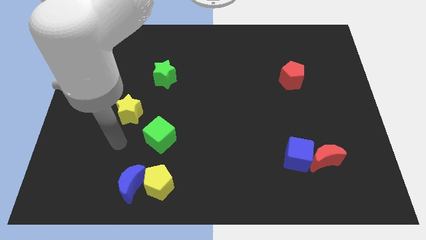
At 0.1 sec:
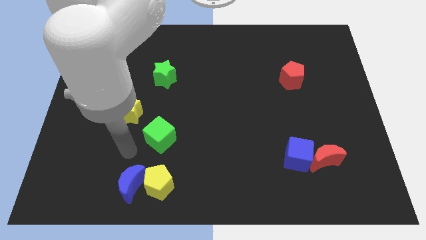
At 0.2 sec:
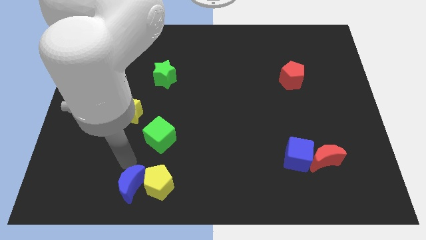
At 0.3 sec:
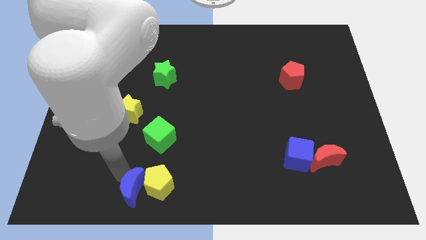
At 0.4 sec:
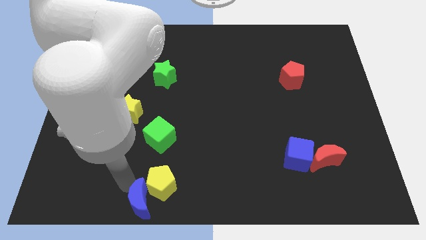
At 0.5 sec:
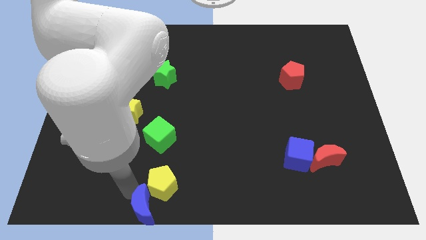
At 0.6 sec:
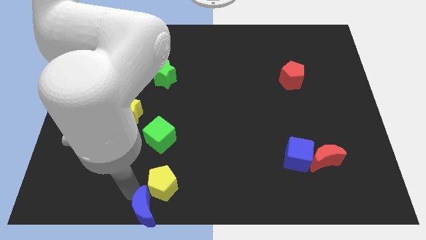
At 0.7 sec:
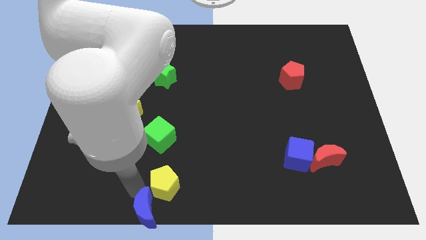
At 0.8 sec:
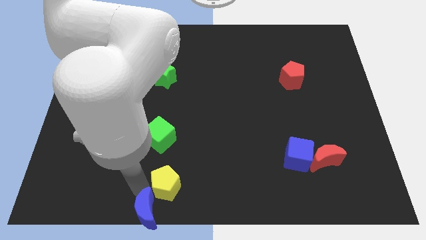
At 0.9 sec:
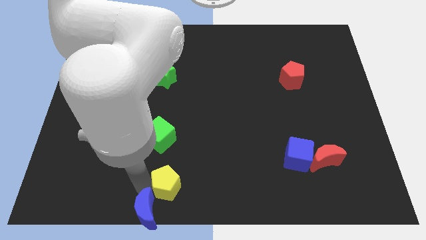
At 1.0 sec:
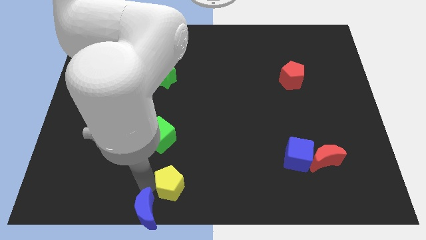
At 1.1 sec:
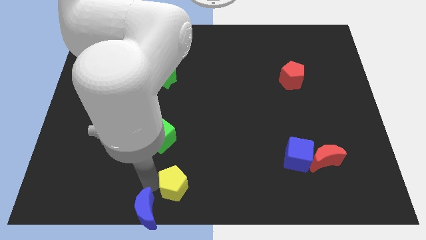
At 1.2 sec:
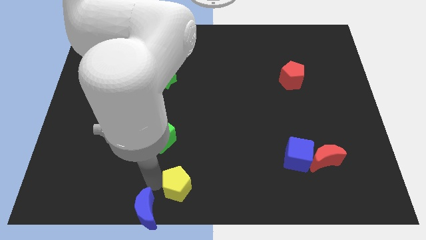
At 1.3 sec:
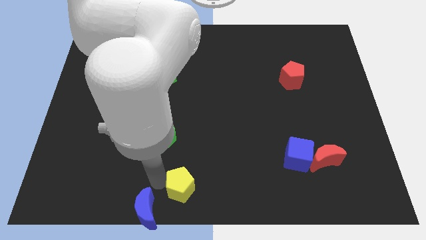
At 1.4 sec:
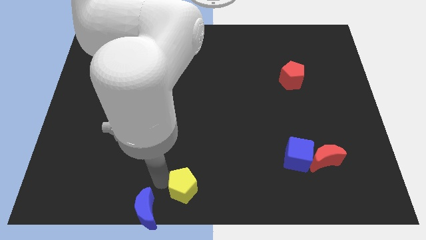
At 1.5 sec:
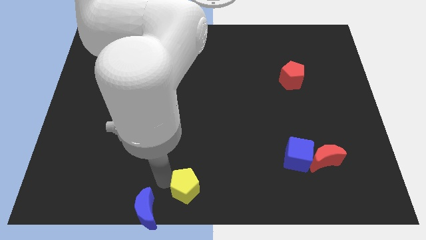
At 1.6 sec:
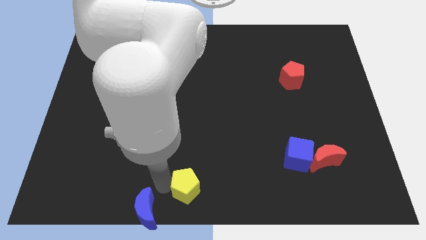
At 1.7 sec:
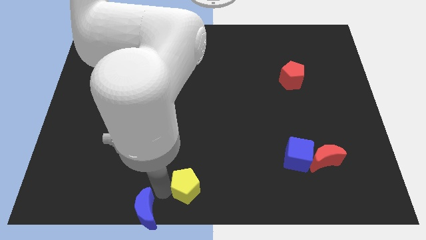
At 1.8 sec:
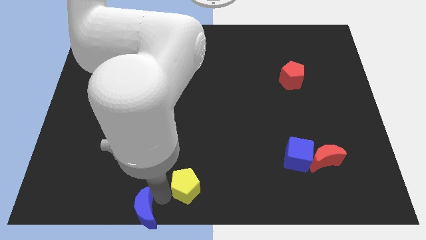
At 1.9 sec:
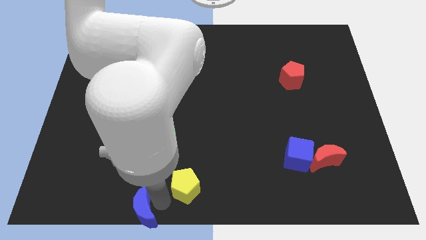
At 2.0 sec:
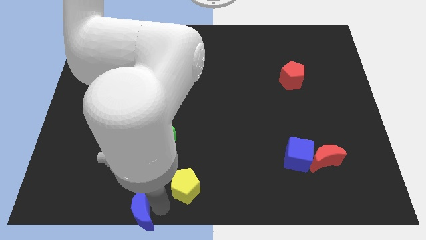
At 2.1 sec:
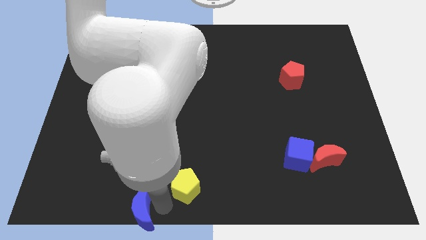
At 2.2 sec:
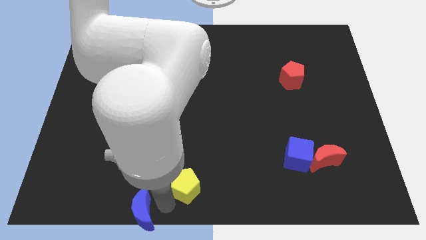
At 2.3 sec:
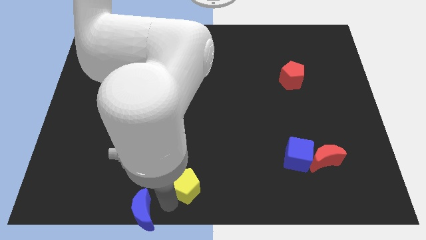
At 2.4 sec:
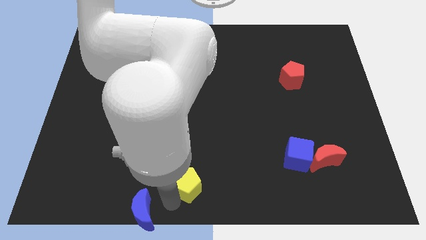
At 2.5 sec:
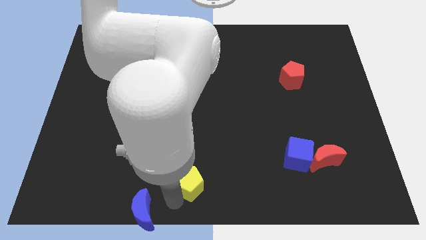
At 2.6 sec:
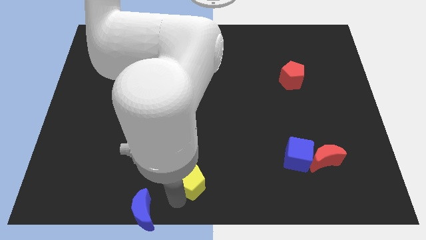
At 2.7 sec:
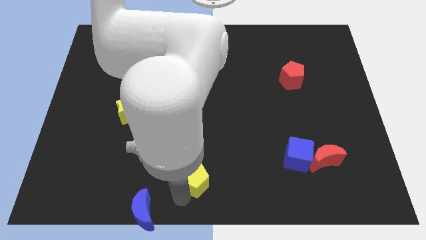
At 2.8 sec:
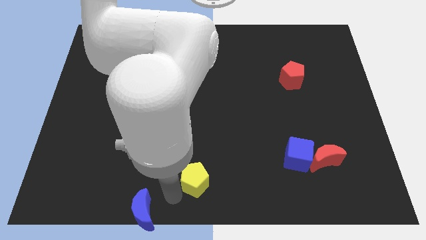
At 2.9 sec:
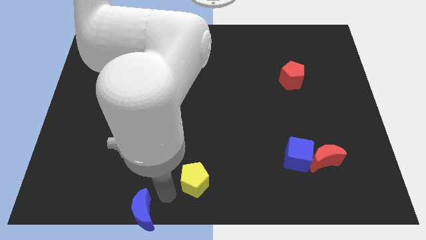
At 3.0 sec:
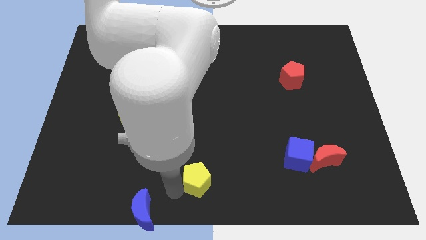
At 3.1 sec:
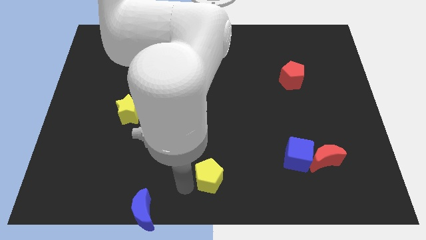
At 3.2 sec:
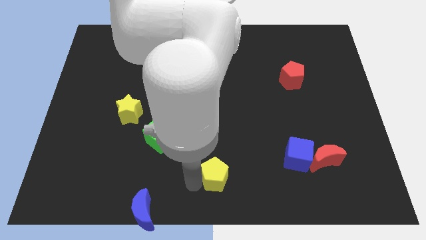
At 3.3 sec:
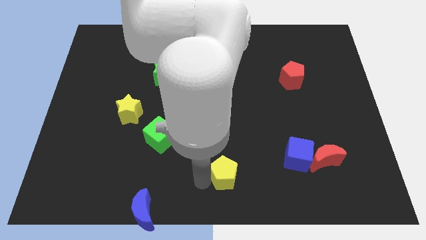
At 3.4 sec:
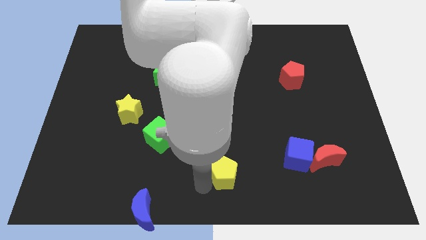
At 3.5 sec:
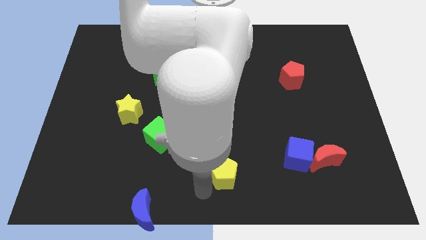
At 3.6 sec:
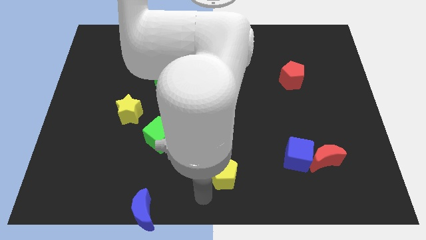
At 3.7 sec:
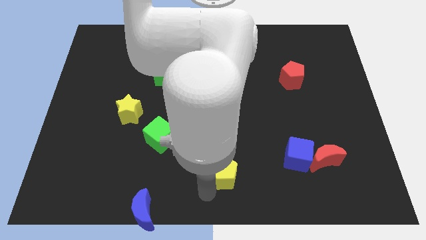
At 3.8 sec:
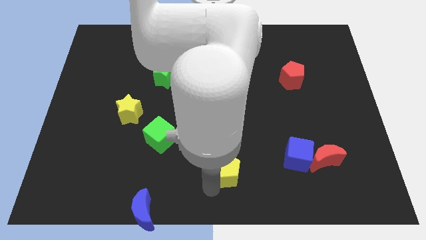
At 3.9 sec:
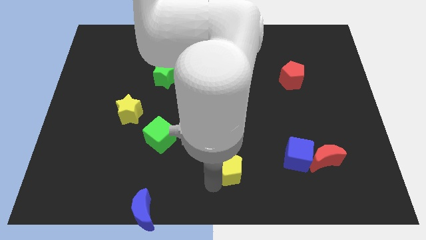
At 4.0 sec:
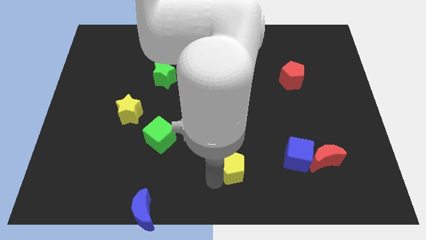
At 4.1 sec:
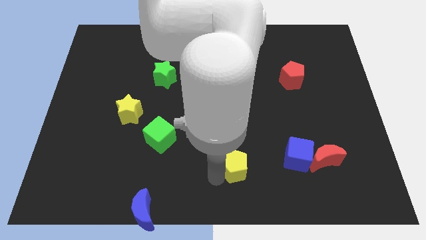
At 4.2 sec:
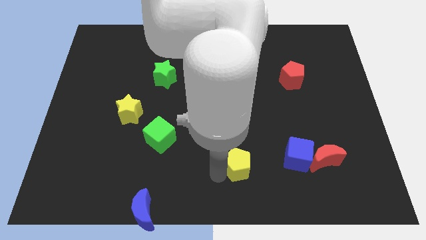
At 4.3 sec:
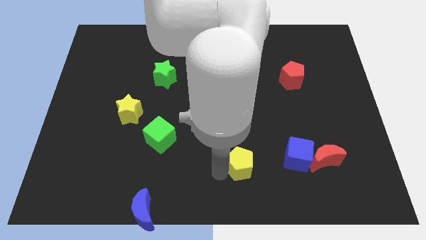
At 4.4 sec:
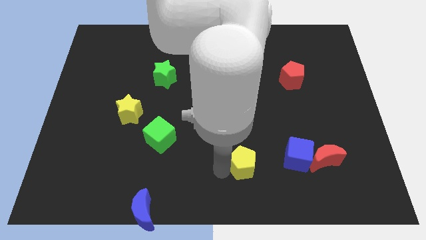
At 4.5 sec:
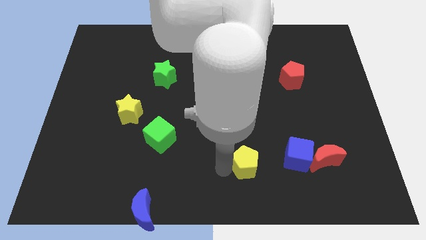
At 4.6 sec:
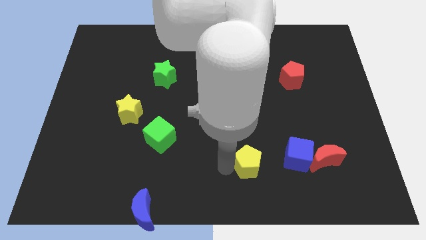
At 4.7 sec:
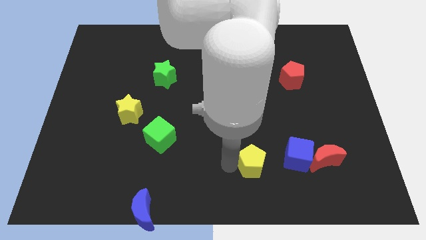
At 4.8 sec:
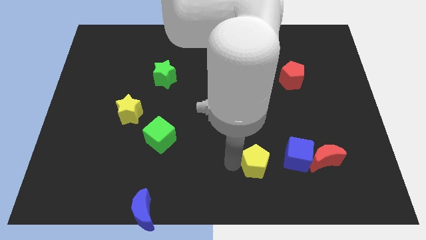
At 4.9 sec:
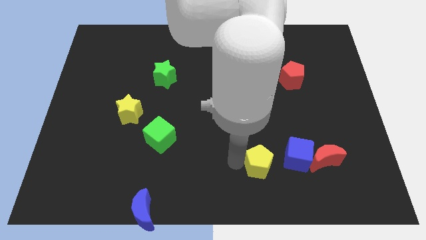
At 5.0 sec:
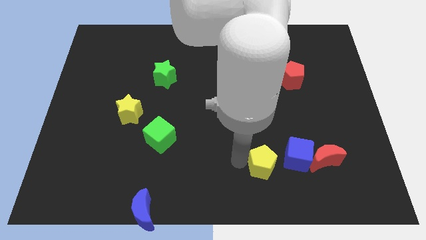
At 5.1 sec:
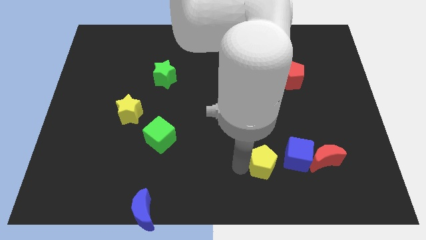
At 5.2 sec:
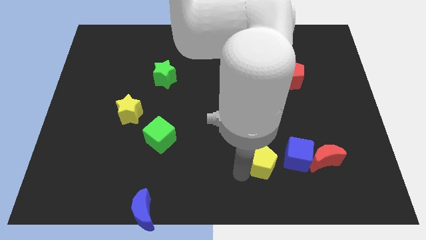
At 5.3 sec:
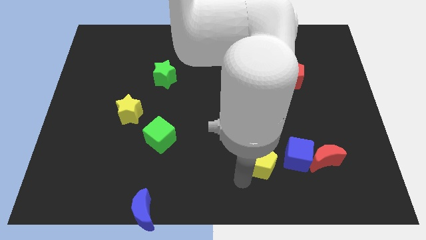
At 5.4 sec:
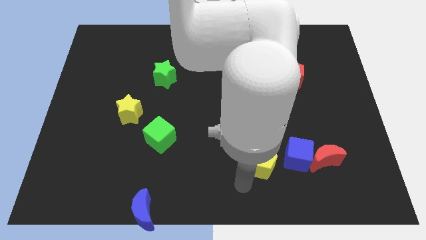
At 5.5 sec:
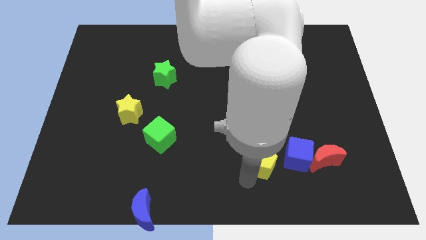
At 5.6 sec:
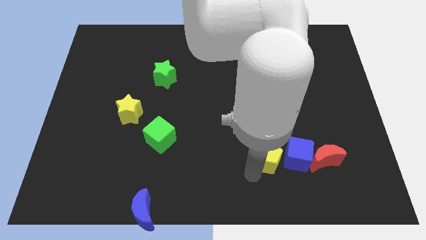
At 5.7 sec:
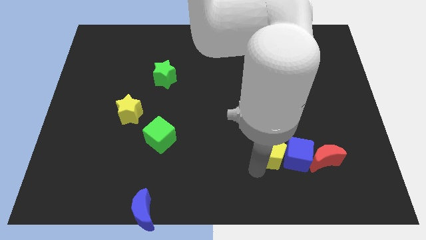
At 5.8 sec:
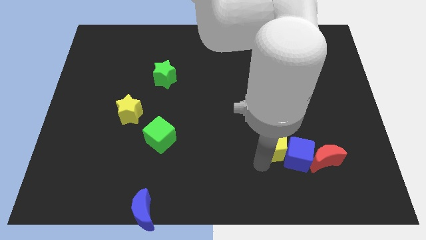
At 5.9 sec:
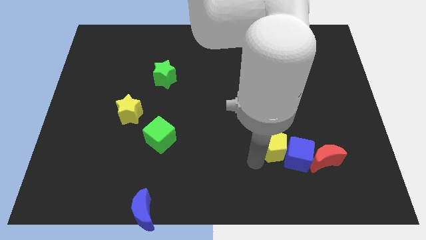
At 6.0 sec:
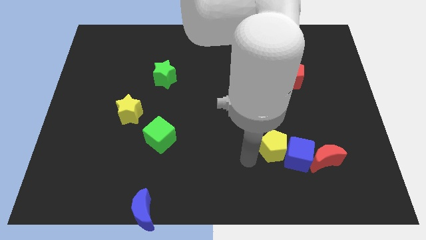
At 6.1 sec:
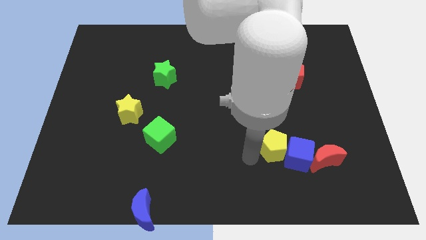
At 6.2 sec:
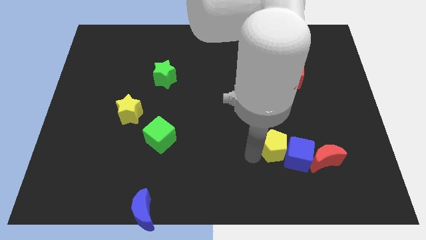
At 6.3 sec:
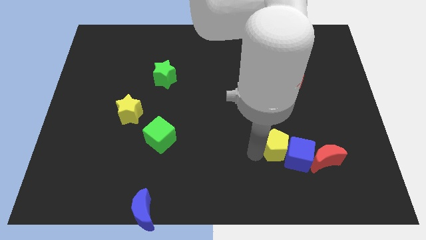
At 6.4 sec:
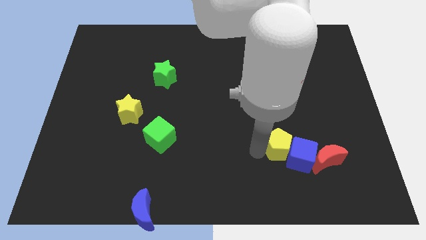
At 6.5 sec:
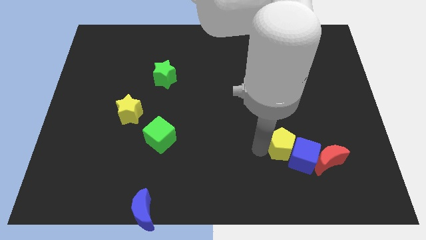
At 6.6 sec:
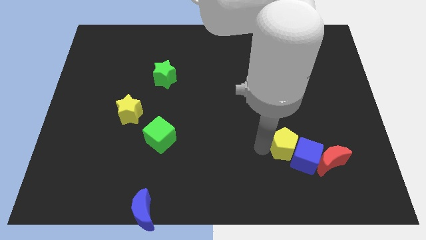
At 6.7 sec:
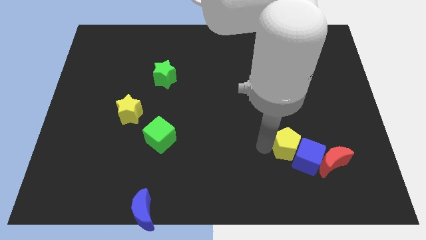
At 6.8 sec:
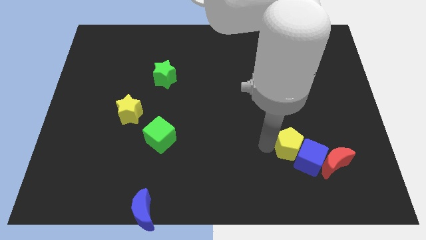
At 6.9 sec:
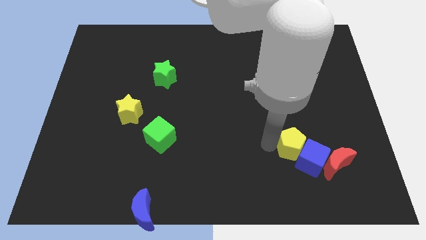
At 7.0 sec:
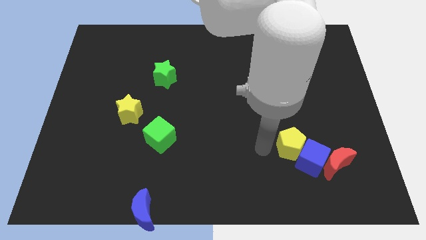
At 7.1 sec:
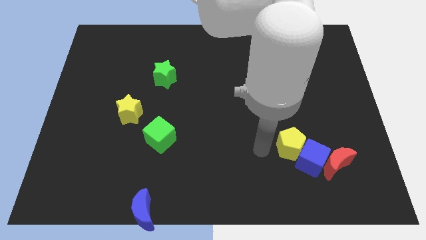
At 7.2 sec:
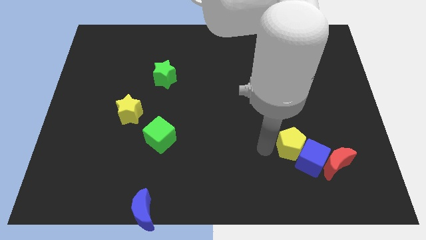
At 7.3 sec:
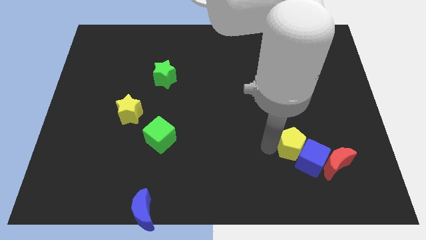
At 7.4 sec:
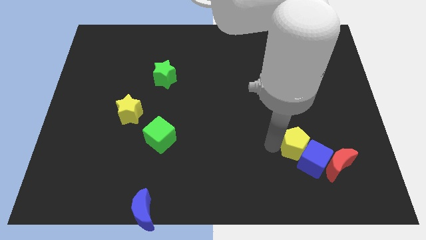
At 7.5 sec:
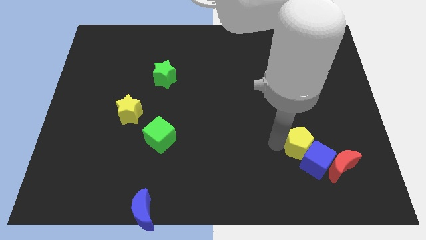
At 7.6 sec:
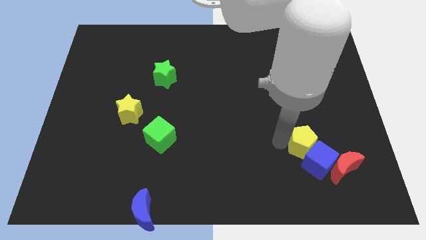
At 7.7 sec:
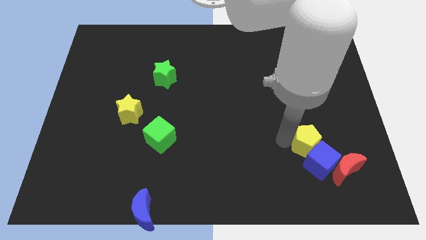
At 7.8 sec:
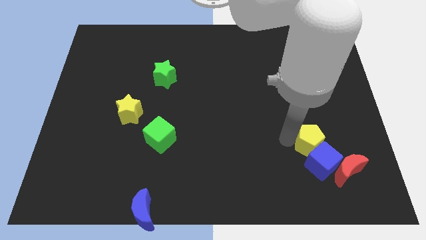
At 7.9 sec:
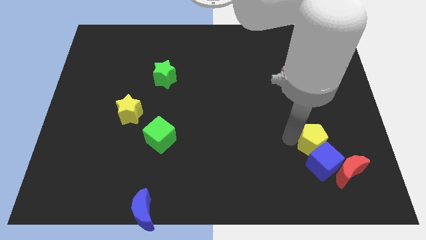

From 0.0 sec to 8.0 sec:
push the yellow pentagon to the top right of the blue cube
